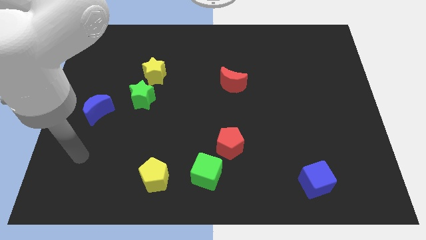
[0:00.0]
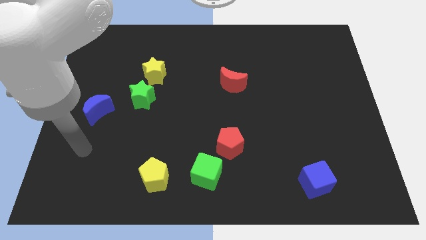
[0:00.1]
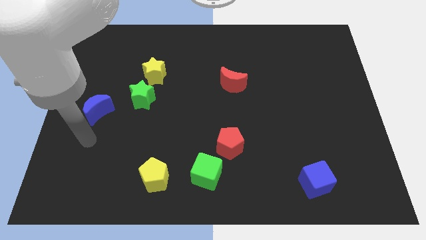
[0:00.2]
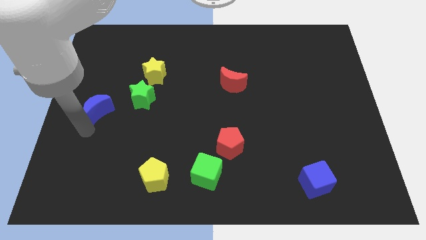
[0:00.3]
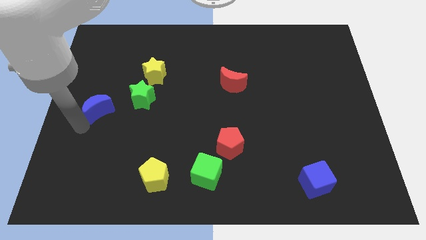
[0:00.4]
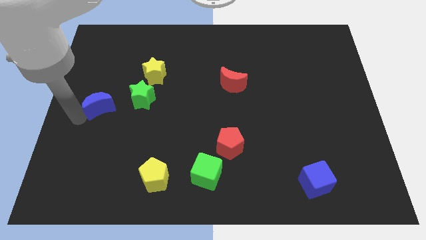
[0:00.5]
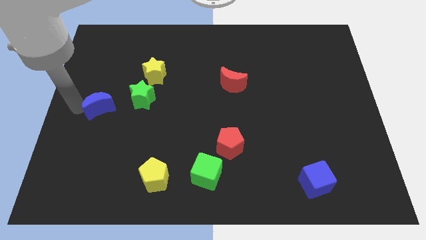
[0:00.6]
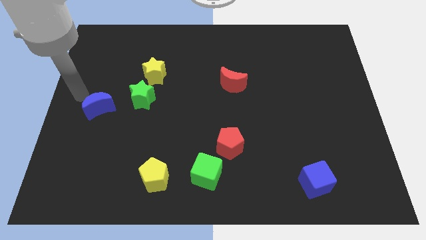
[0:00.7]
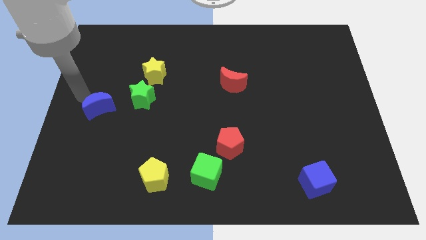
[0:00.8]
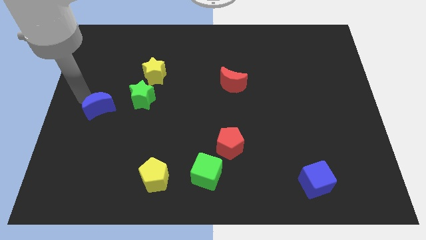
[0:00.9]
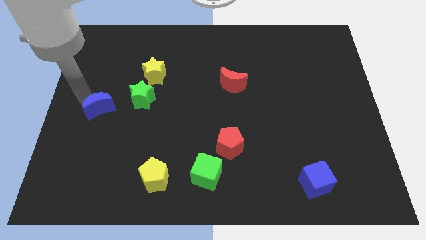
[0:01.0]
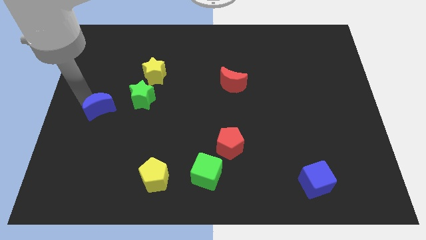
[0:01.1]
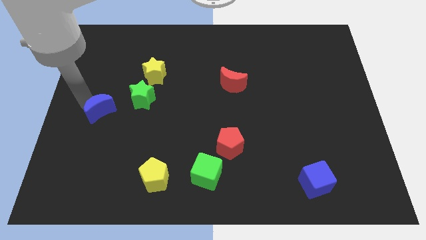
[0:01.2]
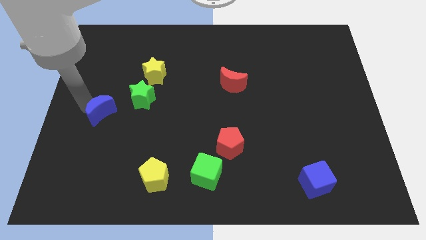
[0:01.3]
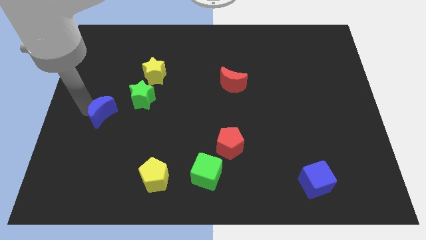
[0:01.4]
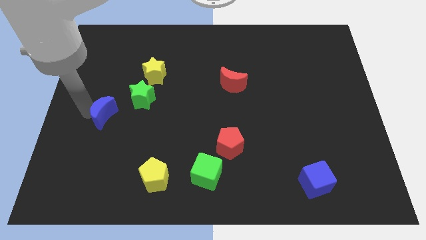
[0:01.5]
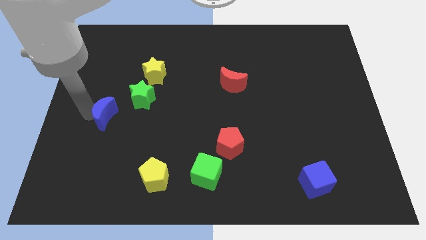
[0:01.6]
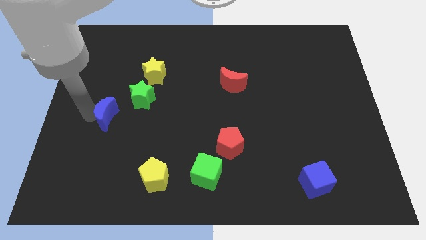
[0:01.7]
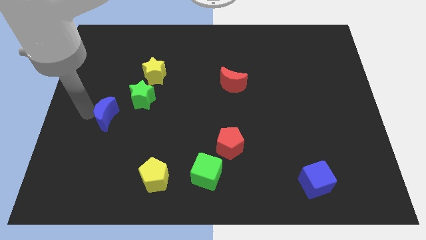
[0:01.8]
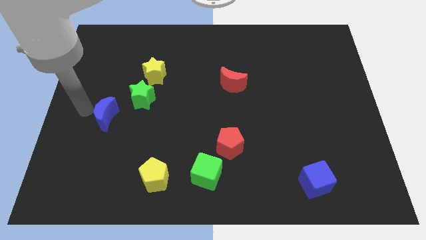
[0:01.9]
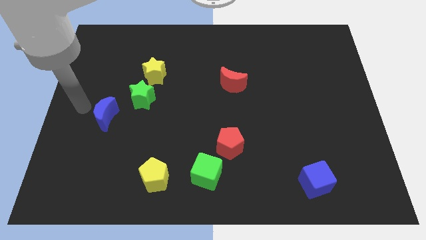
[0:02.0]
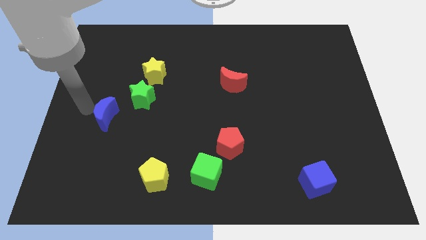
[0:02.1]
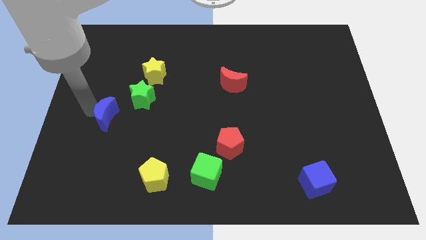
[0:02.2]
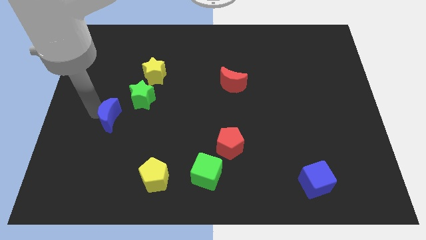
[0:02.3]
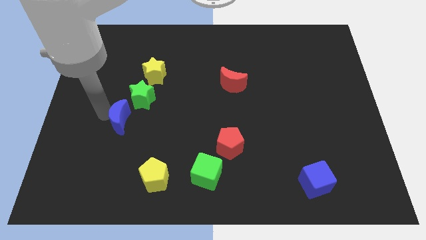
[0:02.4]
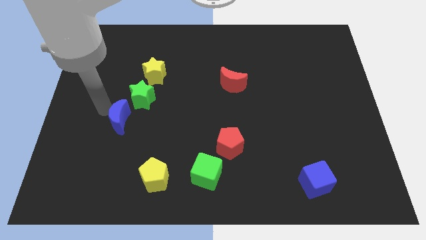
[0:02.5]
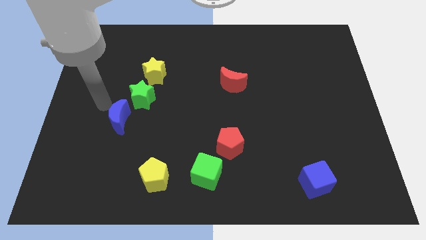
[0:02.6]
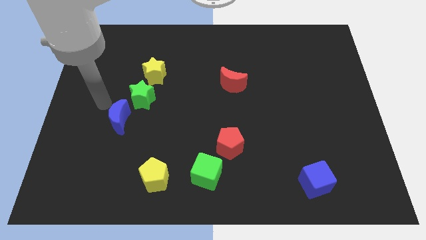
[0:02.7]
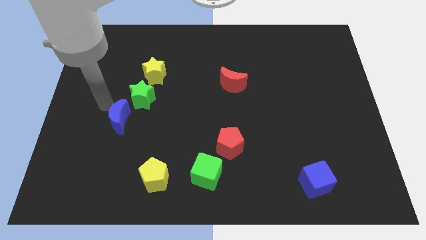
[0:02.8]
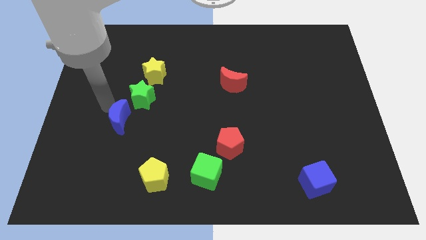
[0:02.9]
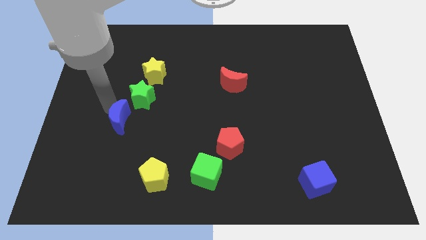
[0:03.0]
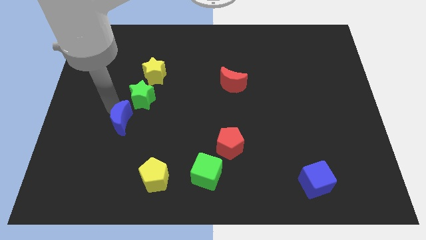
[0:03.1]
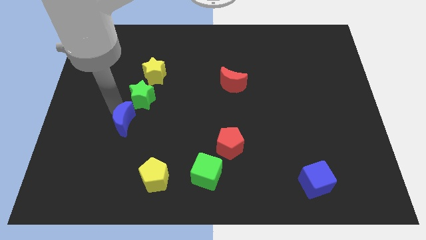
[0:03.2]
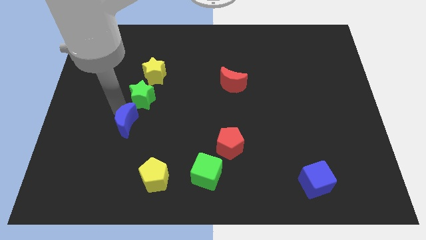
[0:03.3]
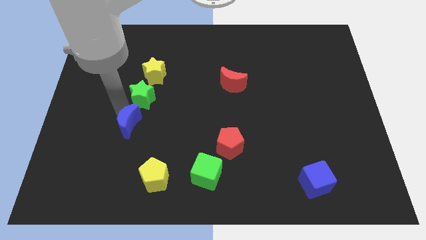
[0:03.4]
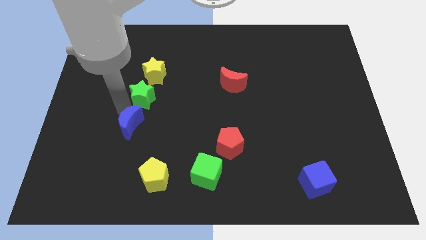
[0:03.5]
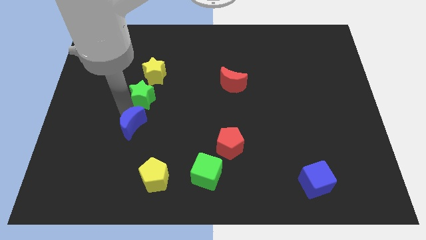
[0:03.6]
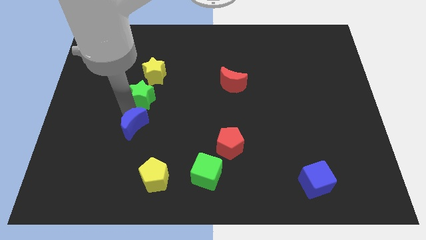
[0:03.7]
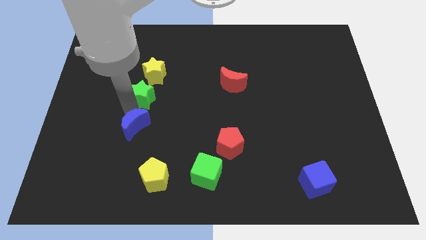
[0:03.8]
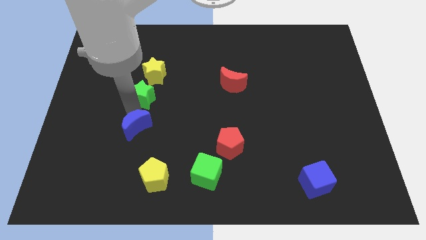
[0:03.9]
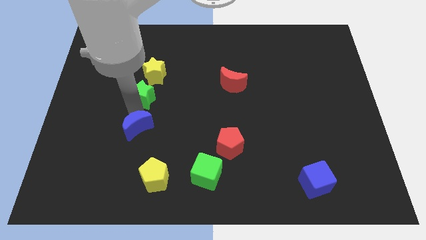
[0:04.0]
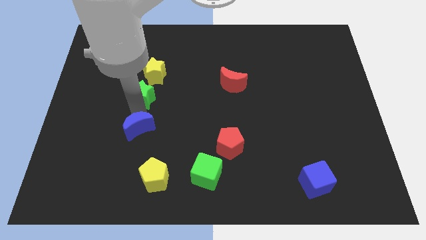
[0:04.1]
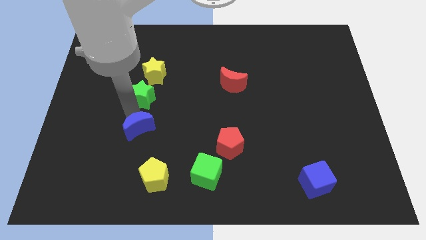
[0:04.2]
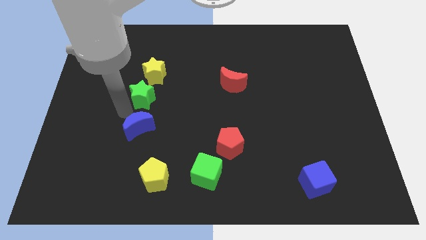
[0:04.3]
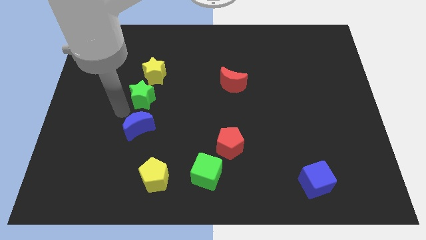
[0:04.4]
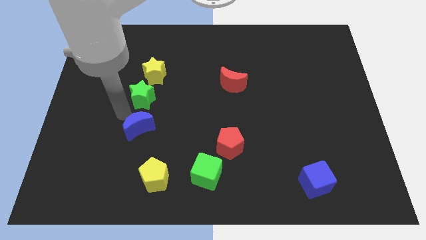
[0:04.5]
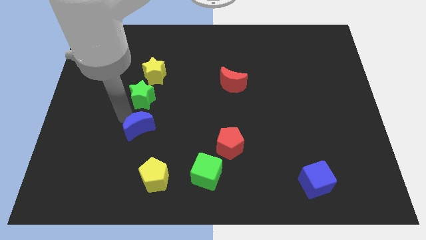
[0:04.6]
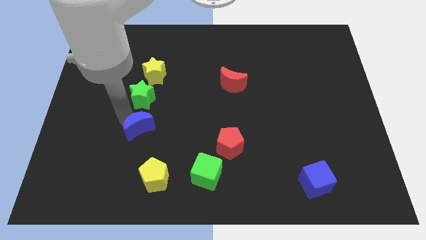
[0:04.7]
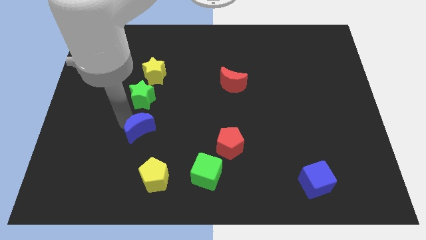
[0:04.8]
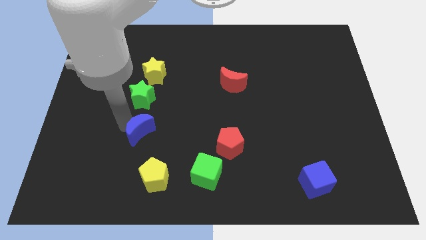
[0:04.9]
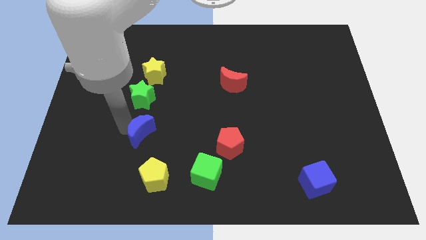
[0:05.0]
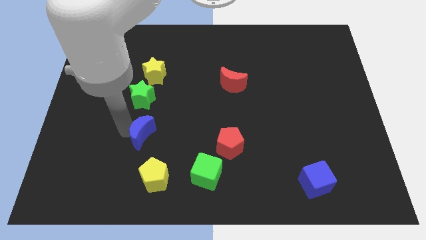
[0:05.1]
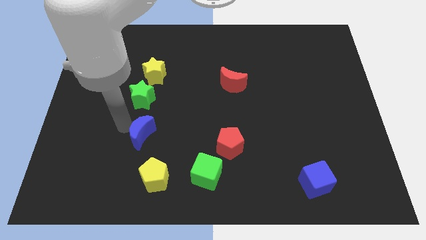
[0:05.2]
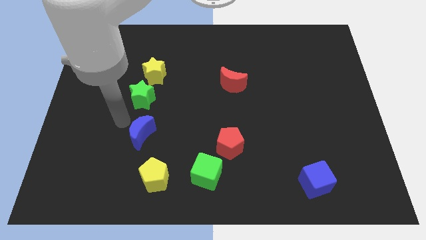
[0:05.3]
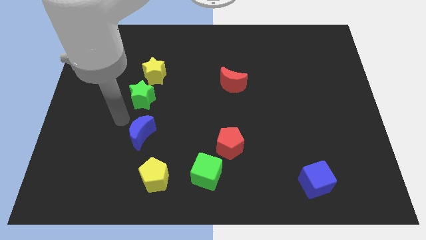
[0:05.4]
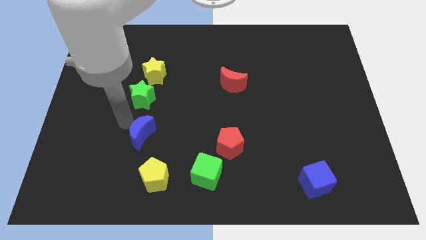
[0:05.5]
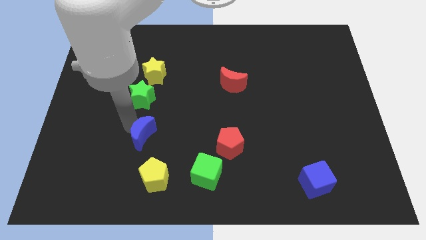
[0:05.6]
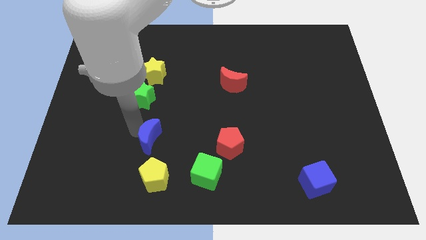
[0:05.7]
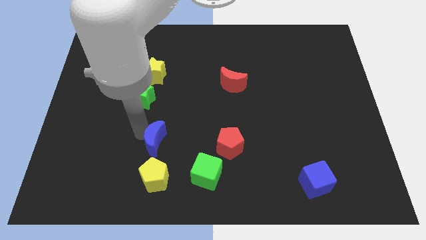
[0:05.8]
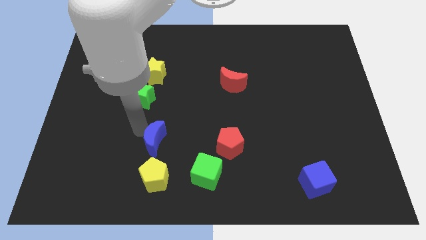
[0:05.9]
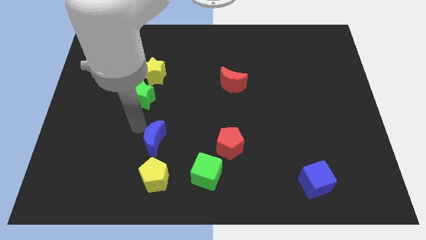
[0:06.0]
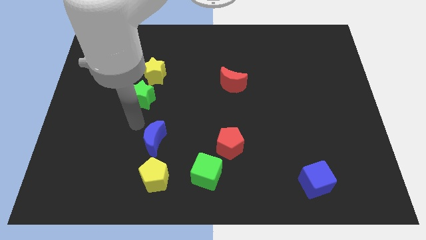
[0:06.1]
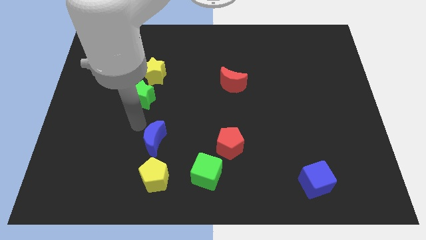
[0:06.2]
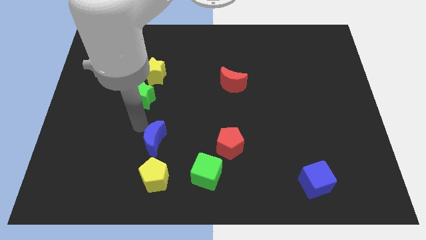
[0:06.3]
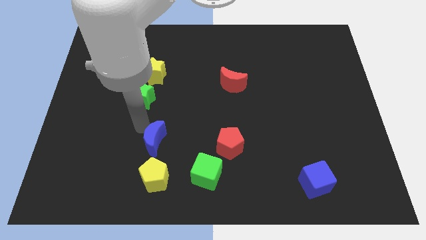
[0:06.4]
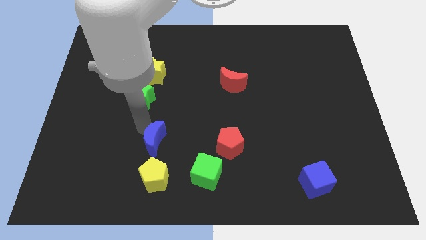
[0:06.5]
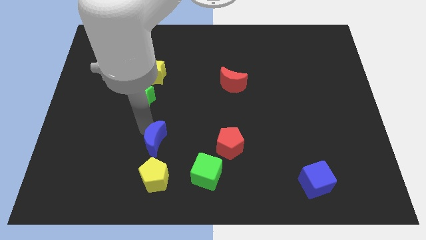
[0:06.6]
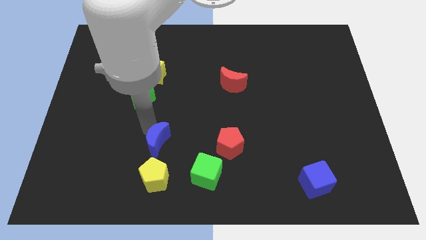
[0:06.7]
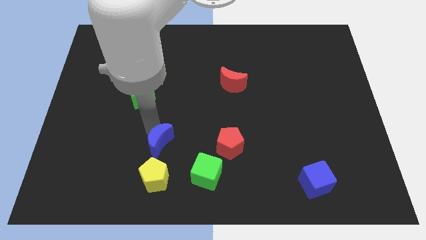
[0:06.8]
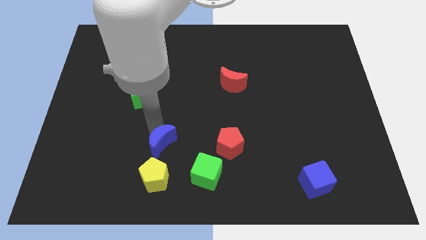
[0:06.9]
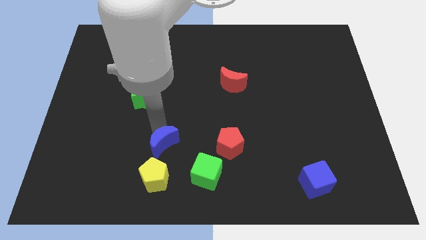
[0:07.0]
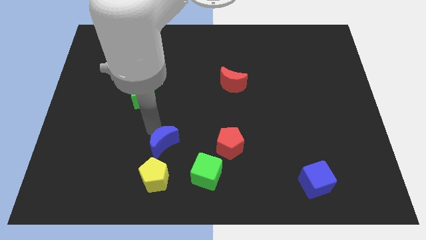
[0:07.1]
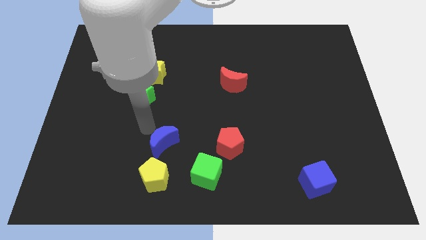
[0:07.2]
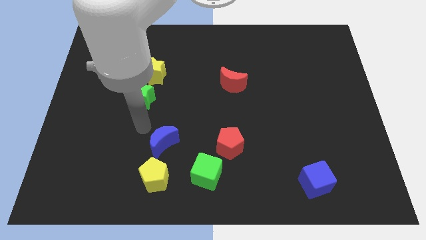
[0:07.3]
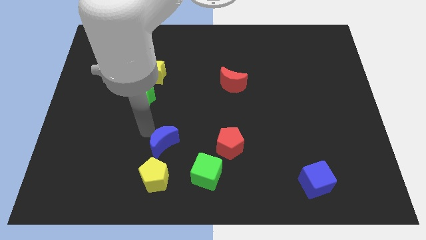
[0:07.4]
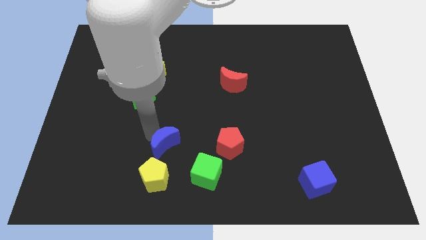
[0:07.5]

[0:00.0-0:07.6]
slide the blue moon diagonally up and to the right of the yellow pentagon
